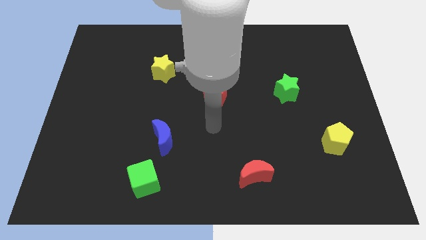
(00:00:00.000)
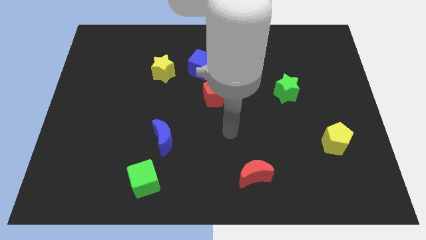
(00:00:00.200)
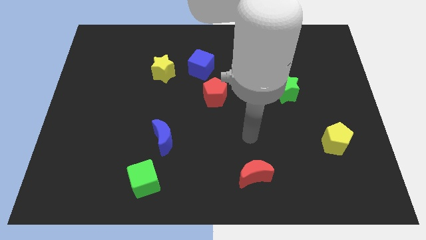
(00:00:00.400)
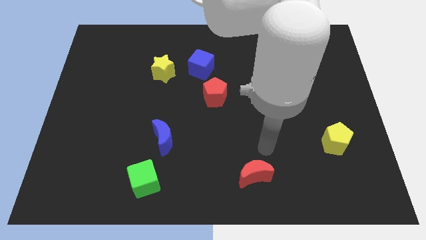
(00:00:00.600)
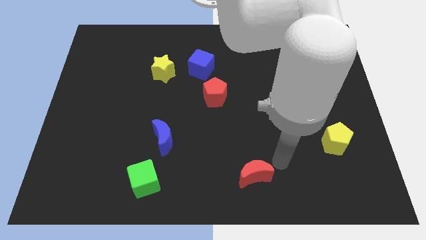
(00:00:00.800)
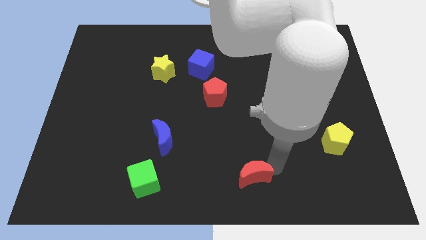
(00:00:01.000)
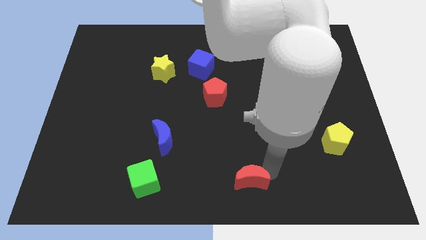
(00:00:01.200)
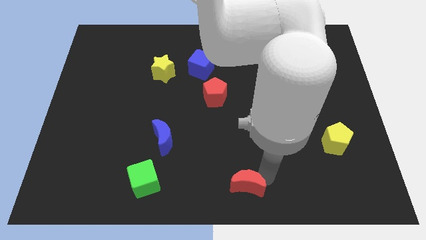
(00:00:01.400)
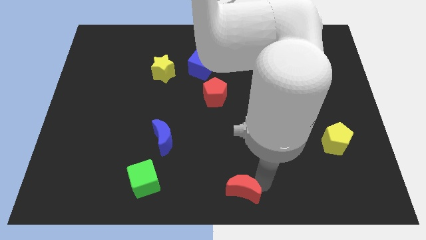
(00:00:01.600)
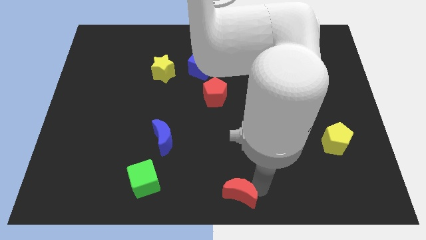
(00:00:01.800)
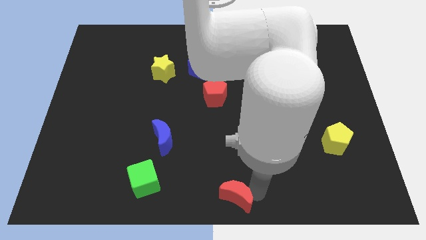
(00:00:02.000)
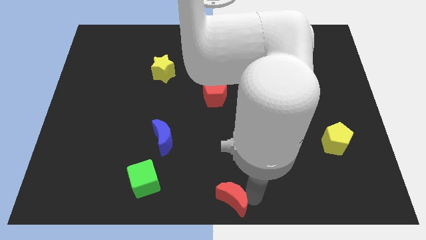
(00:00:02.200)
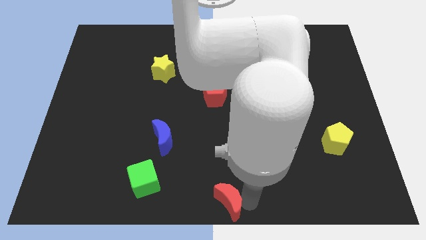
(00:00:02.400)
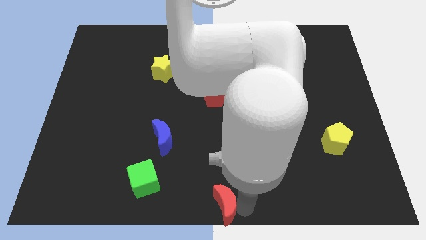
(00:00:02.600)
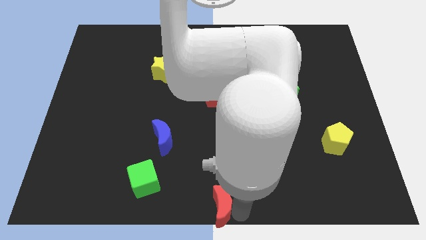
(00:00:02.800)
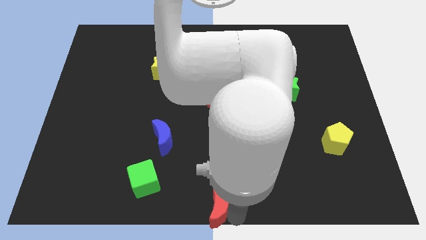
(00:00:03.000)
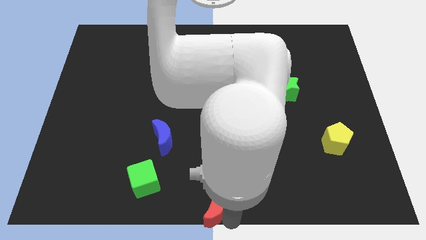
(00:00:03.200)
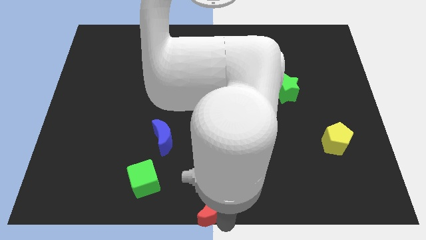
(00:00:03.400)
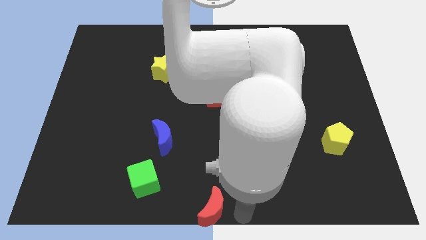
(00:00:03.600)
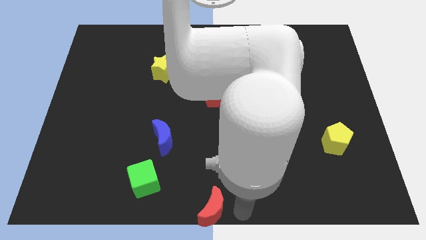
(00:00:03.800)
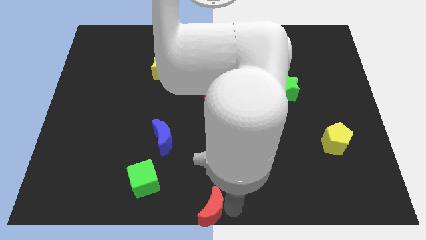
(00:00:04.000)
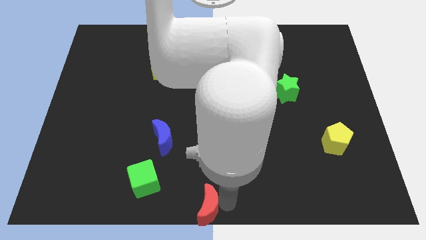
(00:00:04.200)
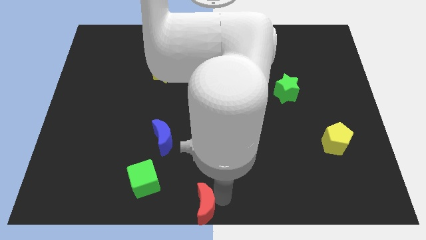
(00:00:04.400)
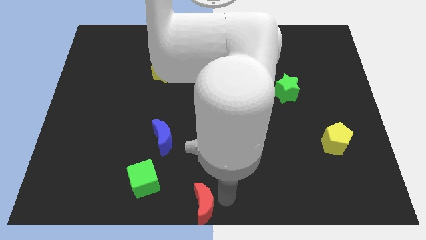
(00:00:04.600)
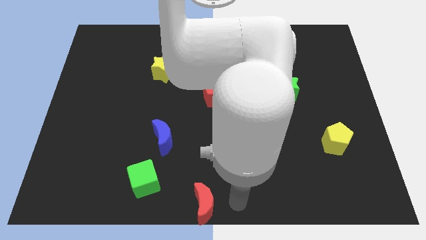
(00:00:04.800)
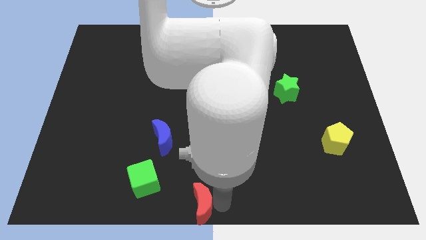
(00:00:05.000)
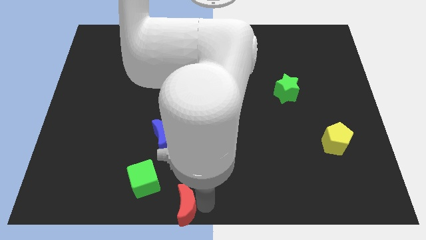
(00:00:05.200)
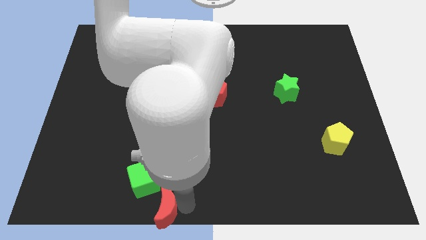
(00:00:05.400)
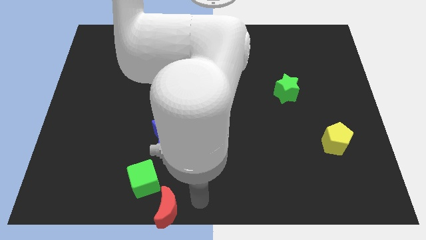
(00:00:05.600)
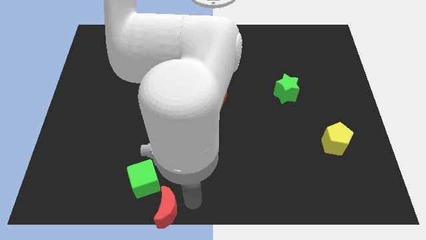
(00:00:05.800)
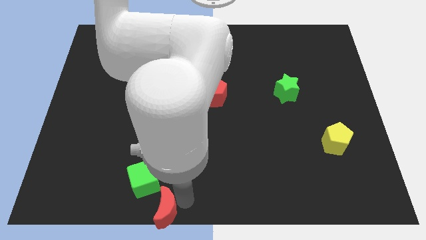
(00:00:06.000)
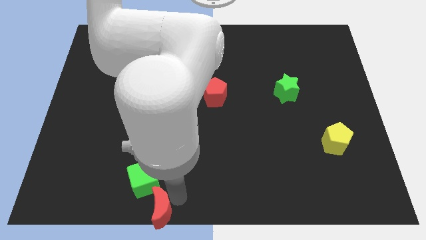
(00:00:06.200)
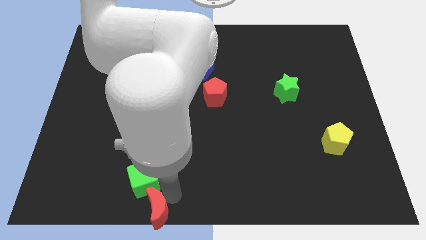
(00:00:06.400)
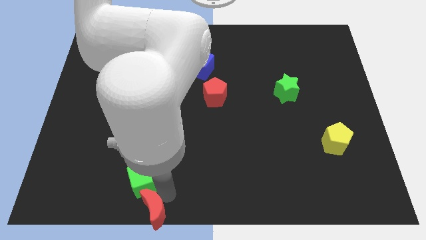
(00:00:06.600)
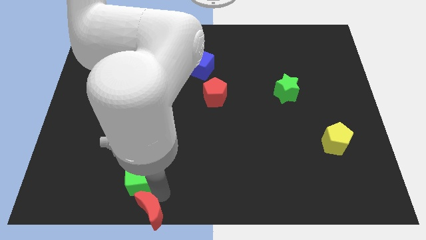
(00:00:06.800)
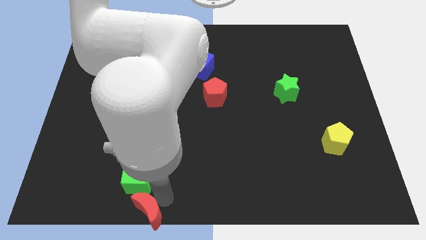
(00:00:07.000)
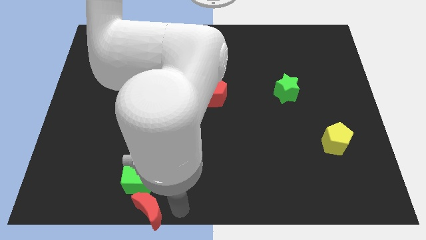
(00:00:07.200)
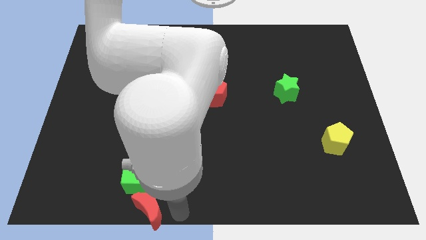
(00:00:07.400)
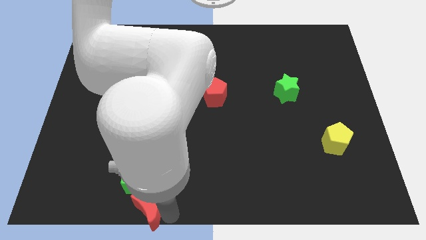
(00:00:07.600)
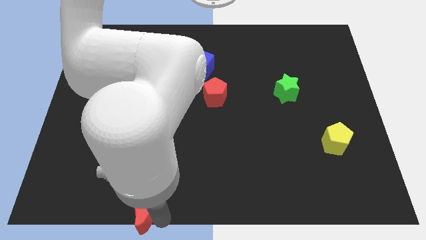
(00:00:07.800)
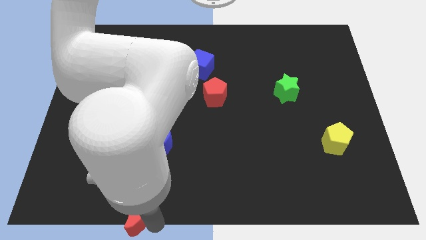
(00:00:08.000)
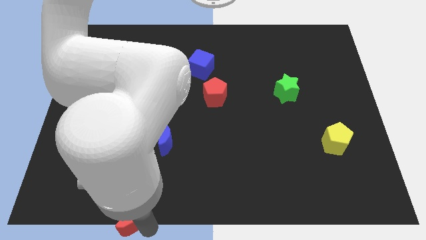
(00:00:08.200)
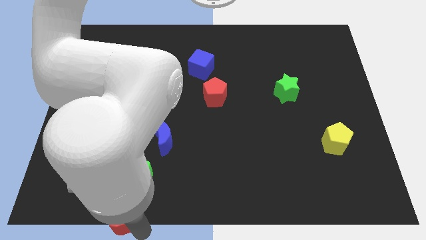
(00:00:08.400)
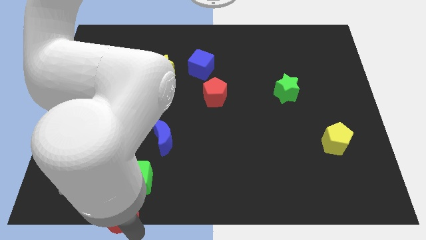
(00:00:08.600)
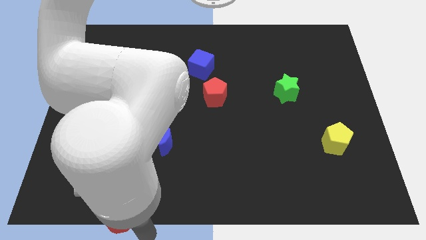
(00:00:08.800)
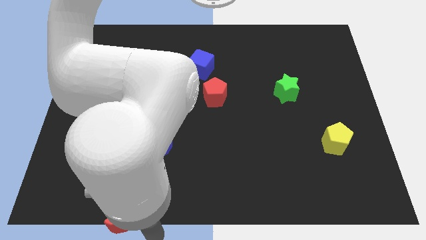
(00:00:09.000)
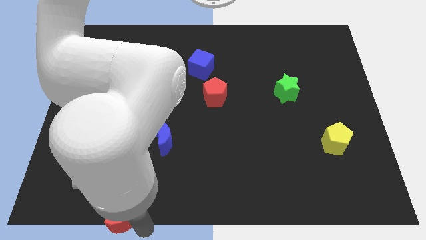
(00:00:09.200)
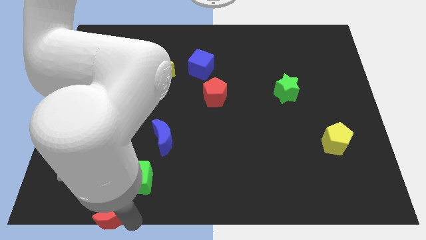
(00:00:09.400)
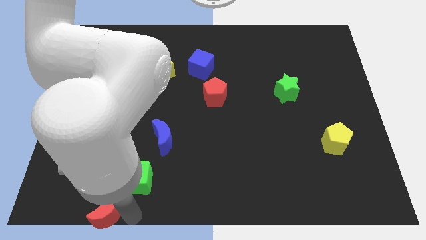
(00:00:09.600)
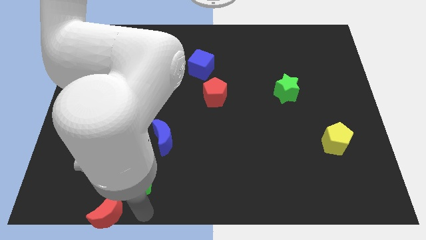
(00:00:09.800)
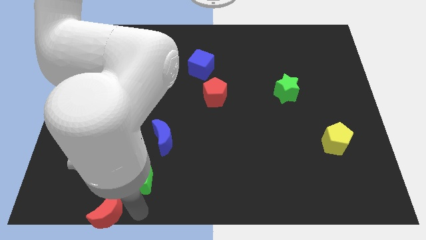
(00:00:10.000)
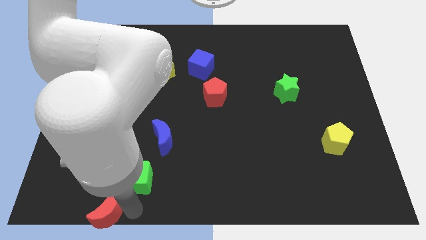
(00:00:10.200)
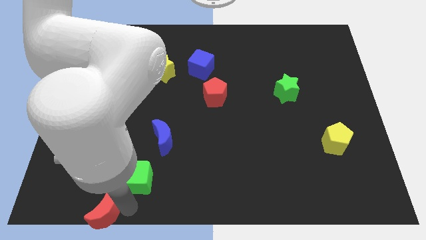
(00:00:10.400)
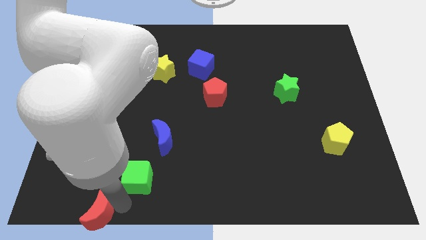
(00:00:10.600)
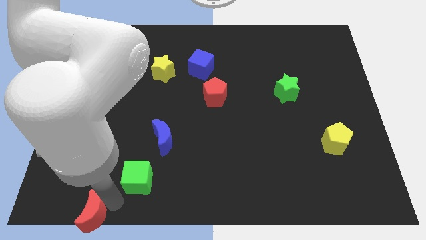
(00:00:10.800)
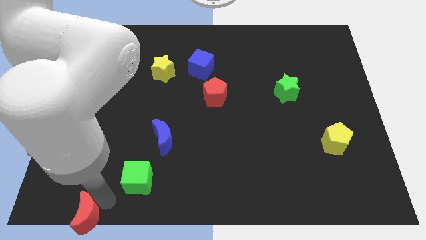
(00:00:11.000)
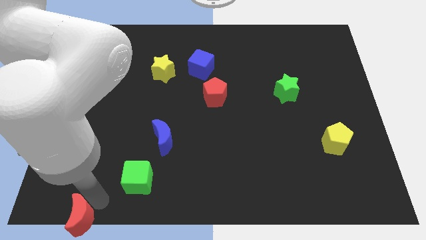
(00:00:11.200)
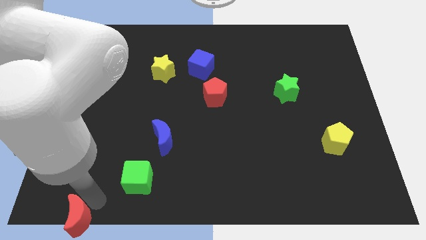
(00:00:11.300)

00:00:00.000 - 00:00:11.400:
slide the red moon to the lower left corner

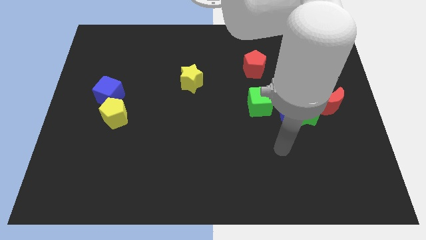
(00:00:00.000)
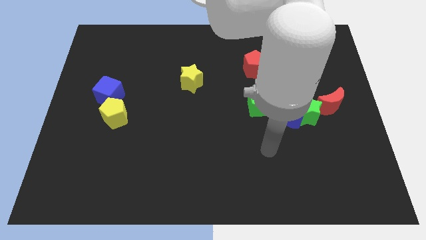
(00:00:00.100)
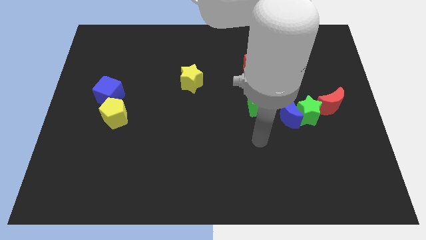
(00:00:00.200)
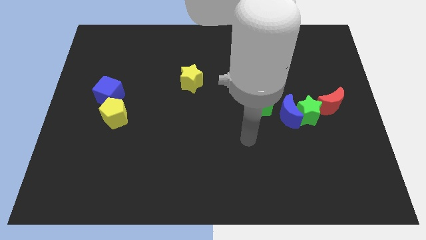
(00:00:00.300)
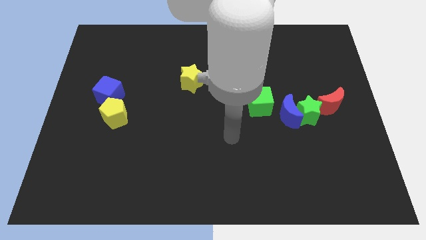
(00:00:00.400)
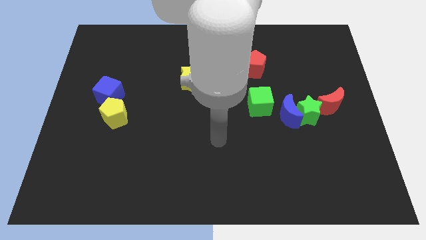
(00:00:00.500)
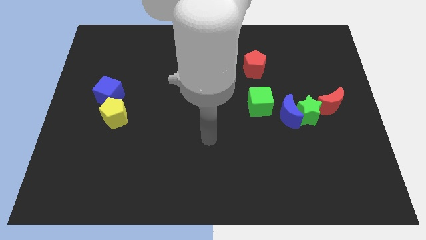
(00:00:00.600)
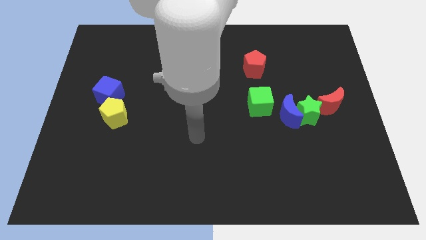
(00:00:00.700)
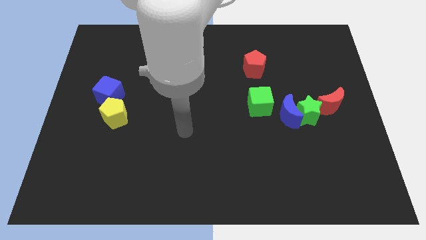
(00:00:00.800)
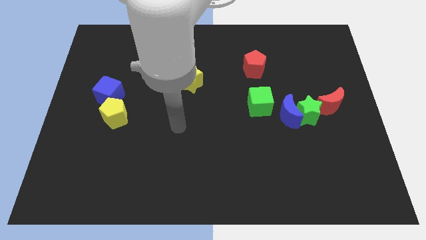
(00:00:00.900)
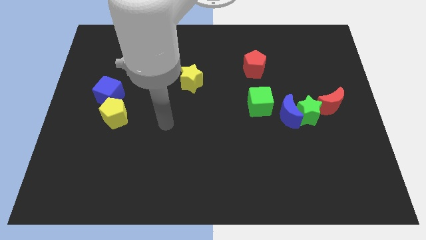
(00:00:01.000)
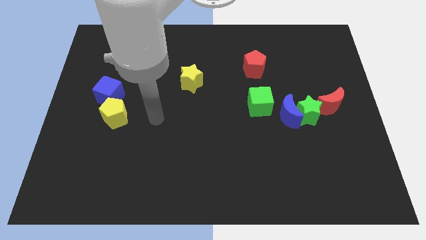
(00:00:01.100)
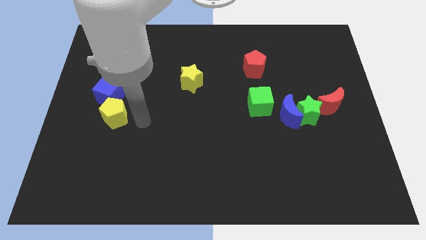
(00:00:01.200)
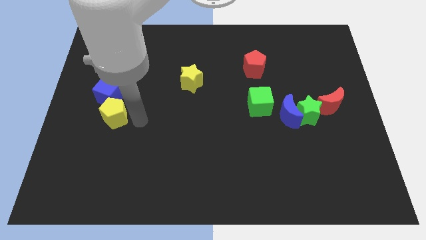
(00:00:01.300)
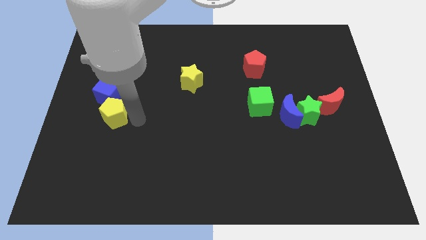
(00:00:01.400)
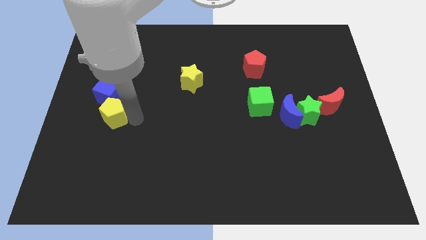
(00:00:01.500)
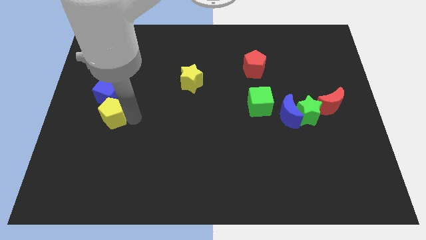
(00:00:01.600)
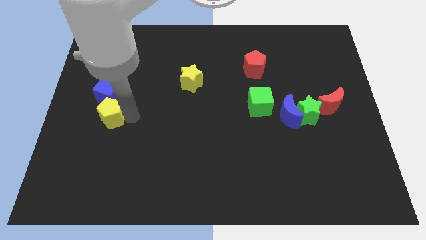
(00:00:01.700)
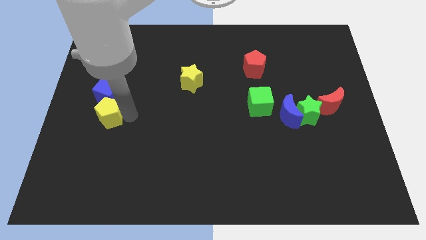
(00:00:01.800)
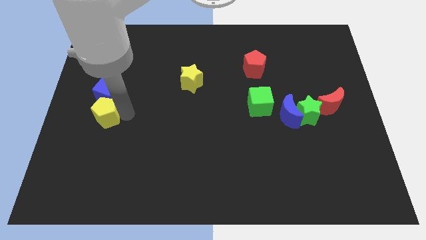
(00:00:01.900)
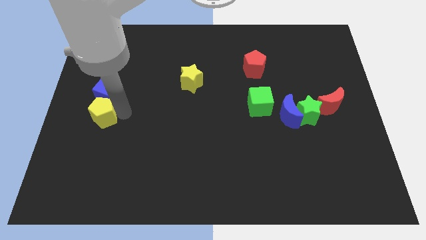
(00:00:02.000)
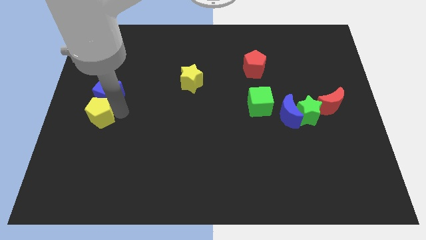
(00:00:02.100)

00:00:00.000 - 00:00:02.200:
slide the yellow pentagon to the left side of the board
